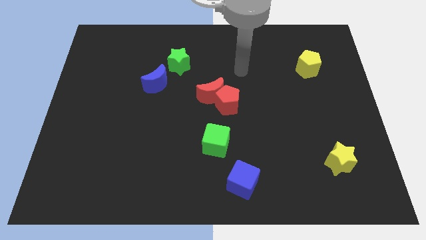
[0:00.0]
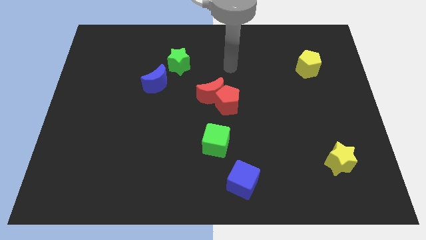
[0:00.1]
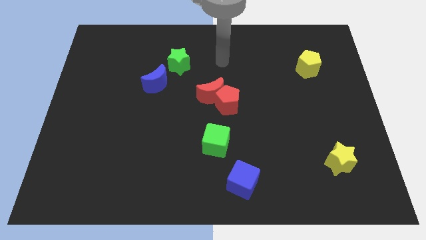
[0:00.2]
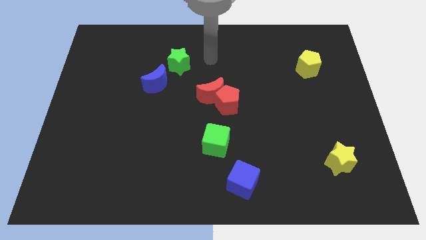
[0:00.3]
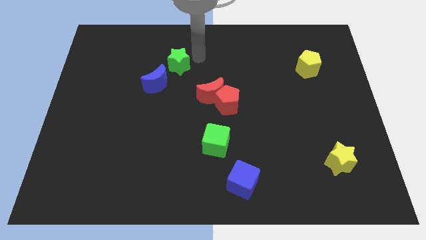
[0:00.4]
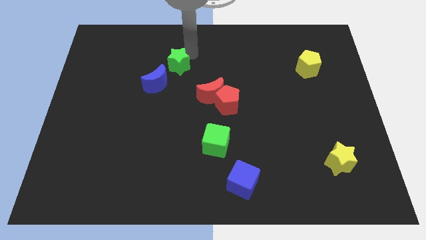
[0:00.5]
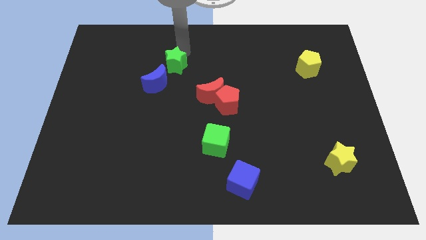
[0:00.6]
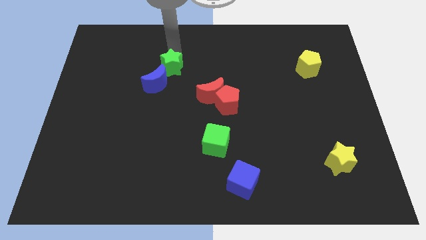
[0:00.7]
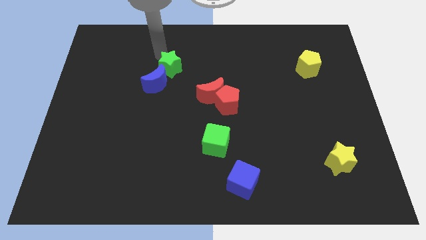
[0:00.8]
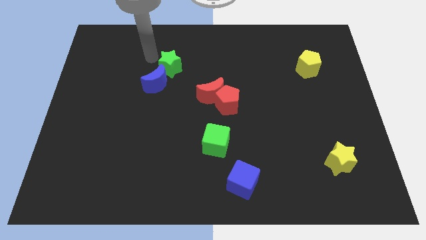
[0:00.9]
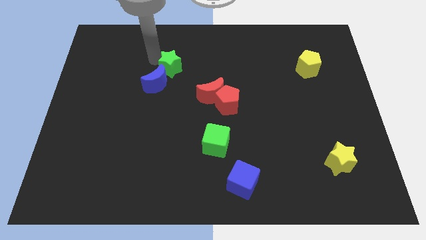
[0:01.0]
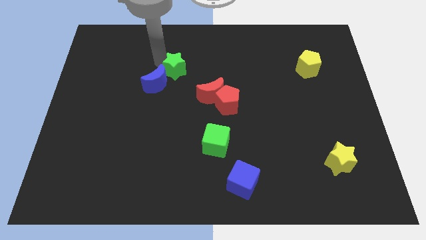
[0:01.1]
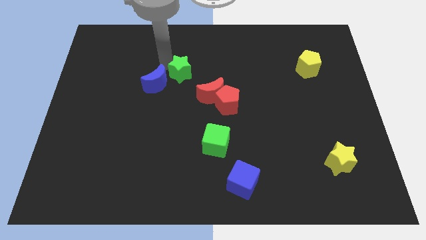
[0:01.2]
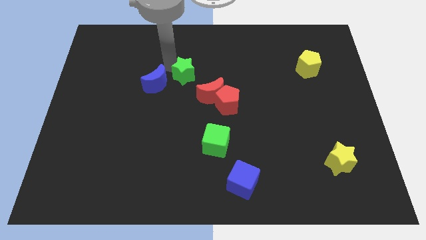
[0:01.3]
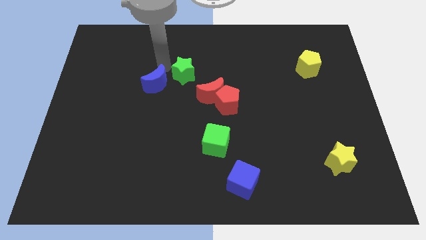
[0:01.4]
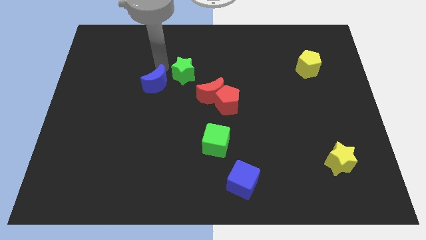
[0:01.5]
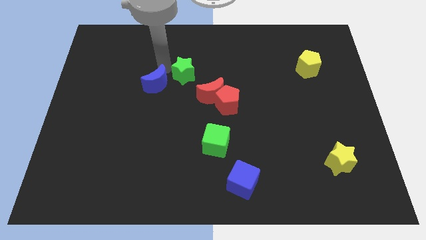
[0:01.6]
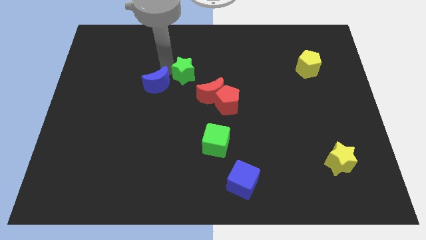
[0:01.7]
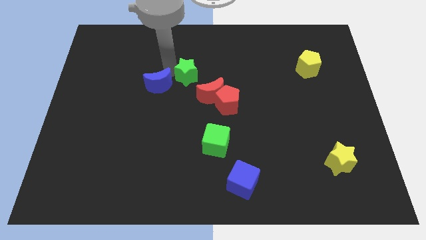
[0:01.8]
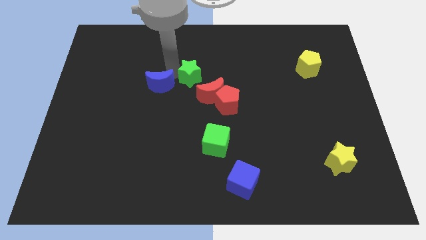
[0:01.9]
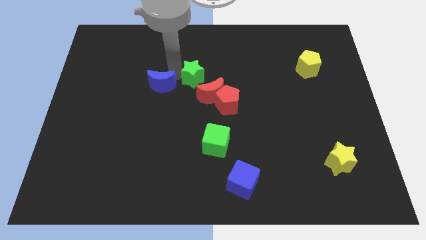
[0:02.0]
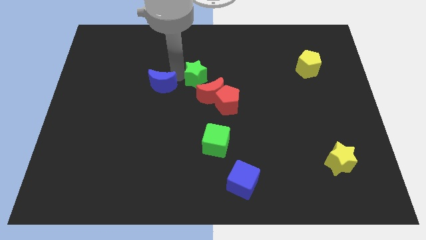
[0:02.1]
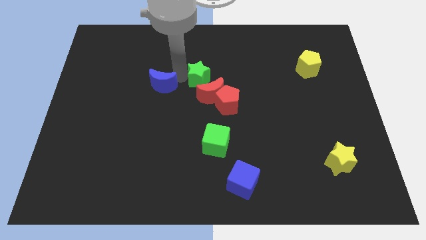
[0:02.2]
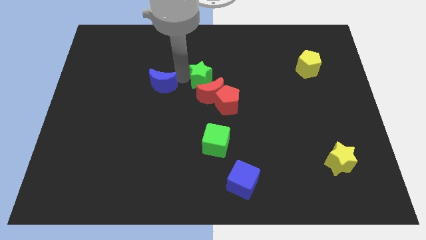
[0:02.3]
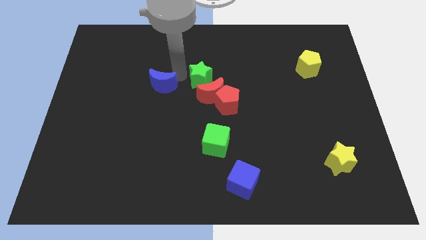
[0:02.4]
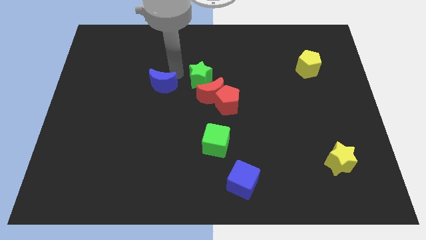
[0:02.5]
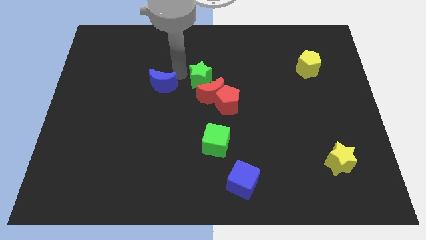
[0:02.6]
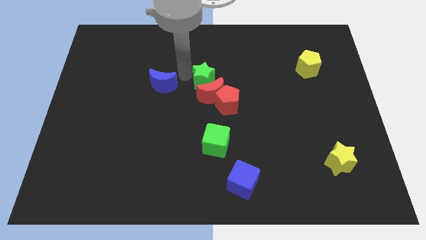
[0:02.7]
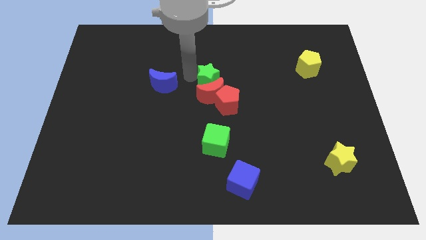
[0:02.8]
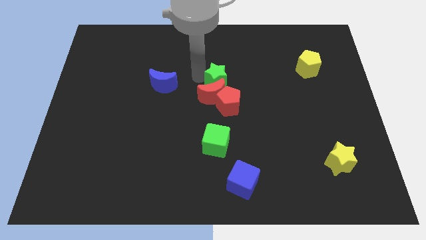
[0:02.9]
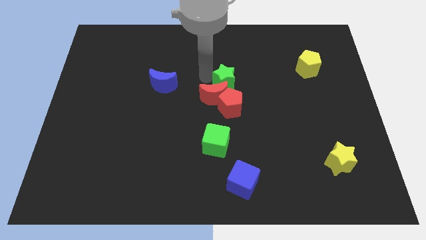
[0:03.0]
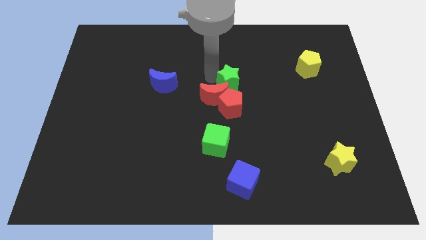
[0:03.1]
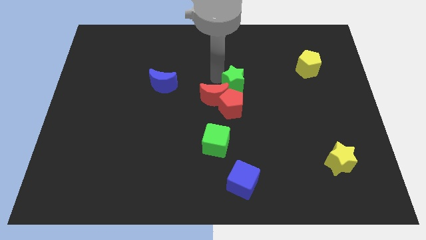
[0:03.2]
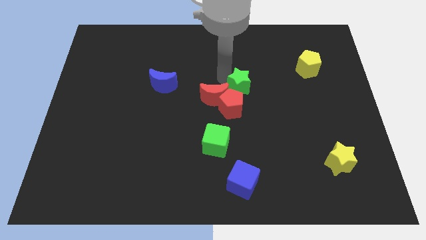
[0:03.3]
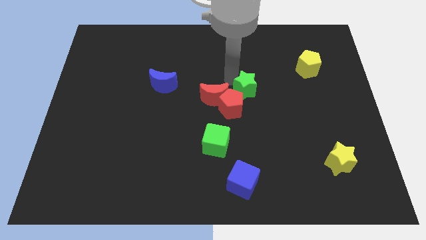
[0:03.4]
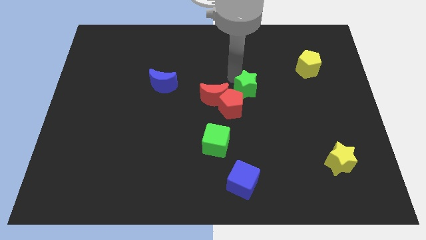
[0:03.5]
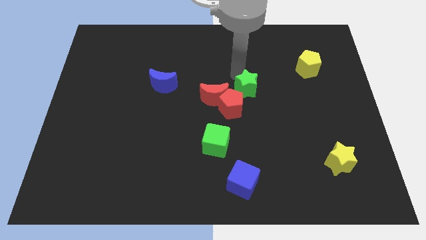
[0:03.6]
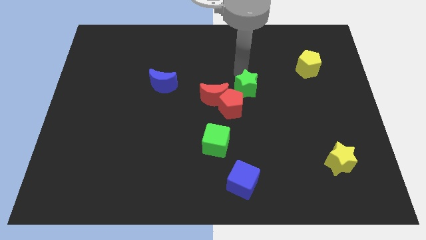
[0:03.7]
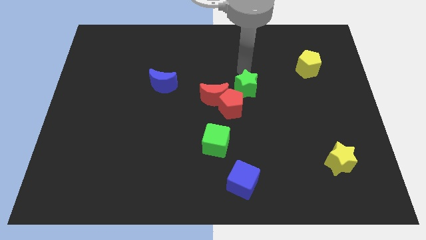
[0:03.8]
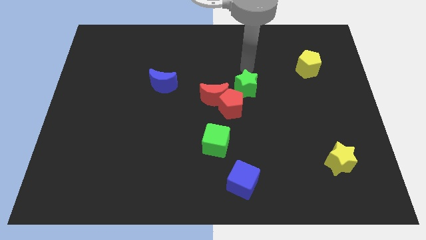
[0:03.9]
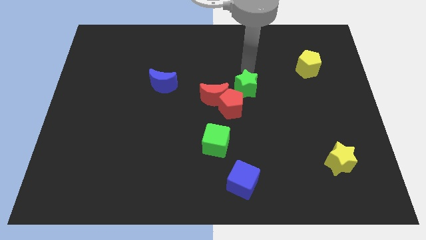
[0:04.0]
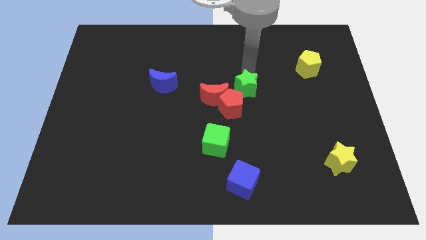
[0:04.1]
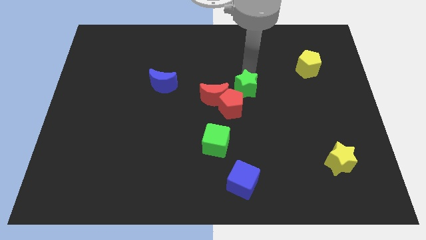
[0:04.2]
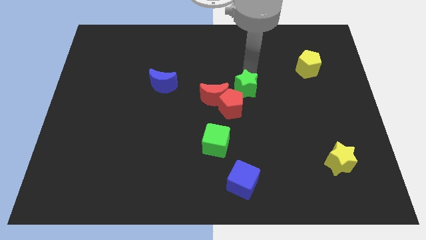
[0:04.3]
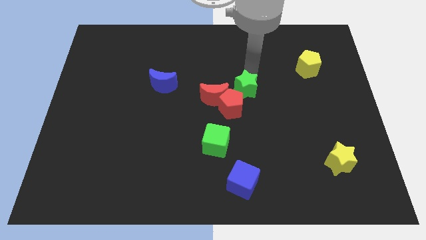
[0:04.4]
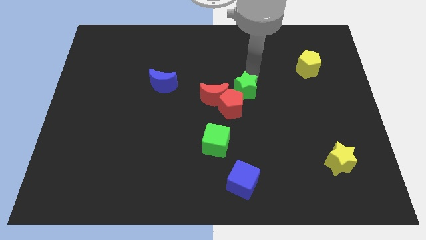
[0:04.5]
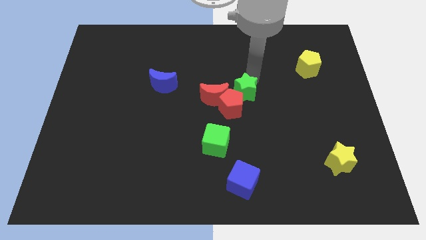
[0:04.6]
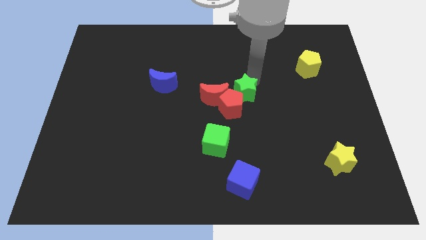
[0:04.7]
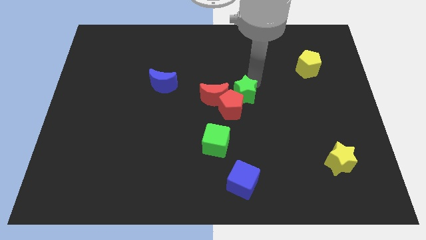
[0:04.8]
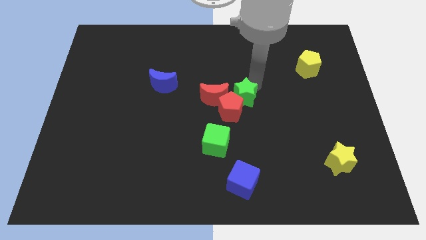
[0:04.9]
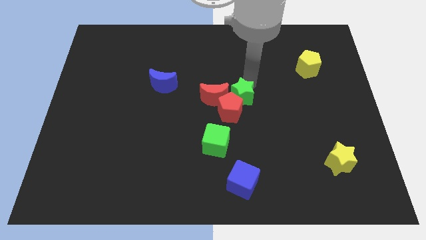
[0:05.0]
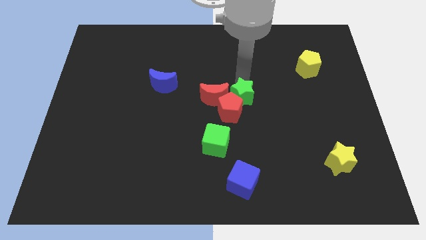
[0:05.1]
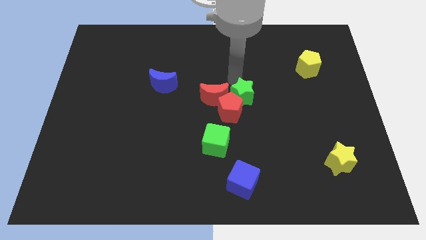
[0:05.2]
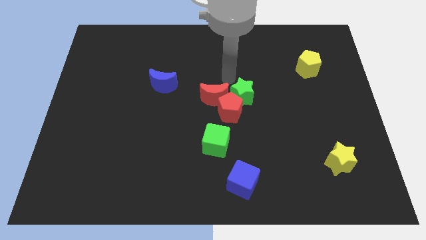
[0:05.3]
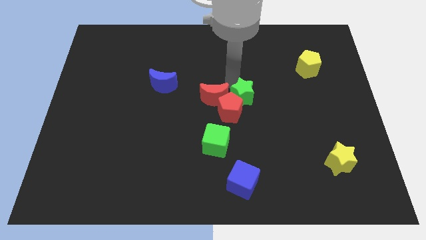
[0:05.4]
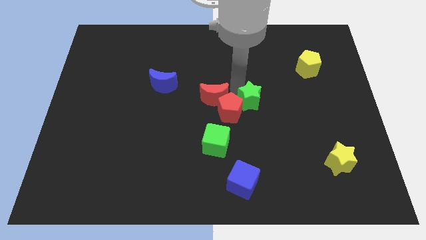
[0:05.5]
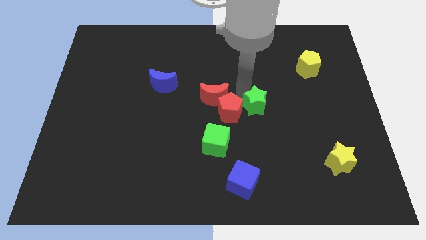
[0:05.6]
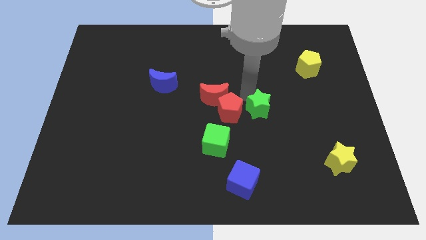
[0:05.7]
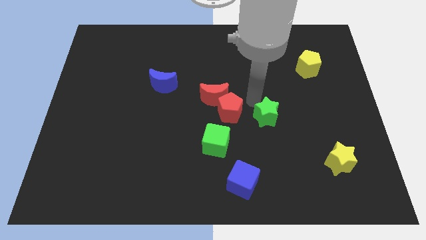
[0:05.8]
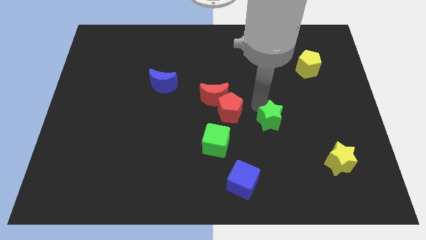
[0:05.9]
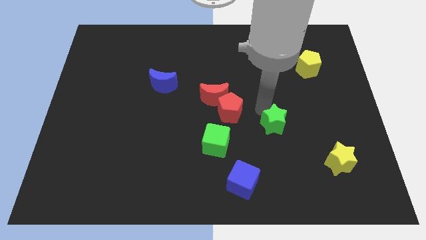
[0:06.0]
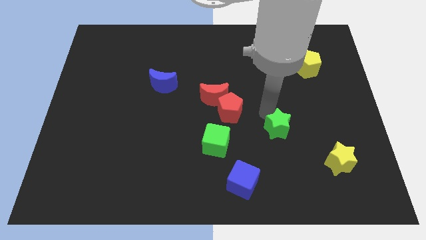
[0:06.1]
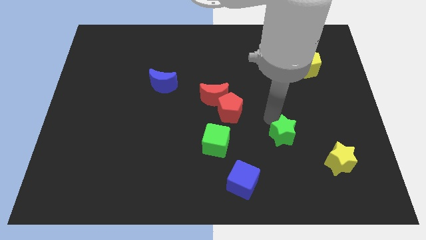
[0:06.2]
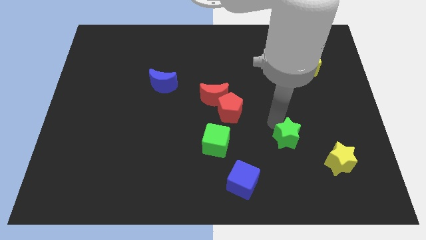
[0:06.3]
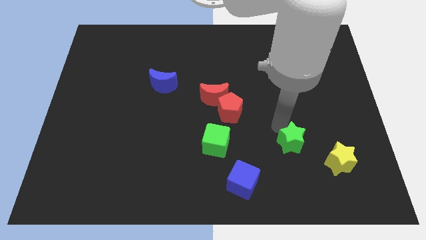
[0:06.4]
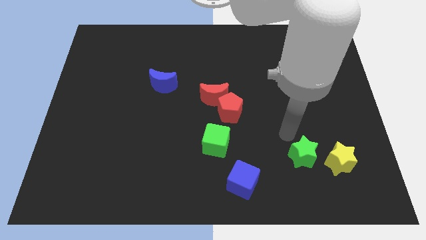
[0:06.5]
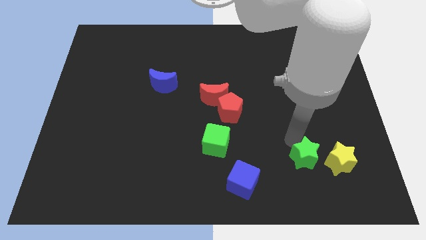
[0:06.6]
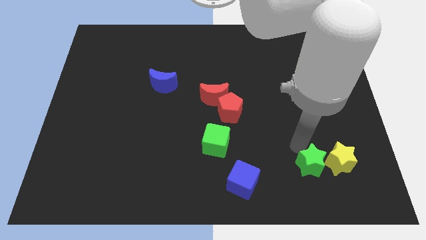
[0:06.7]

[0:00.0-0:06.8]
put the green star to the bottom left of the yellow star
